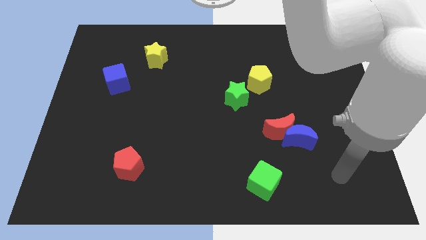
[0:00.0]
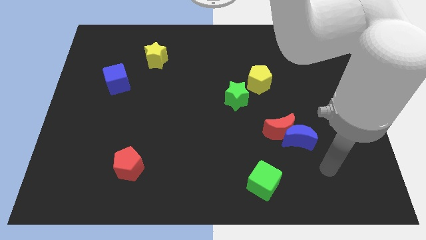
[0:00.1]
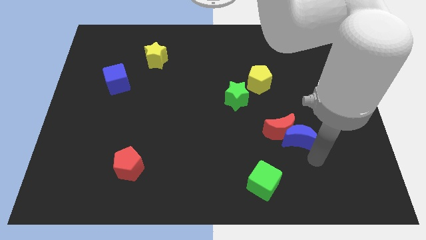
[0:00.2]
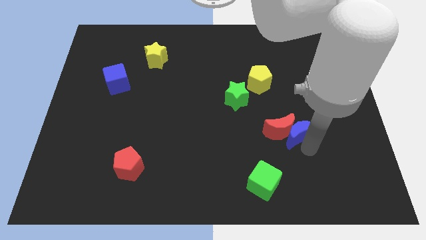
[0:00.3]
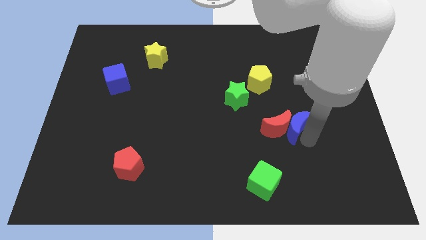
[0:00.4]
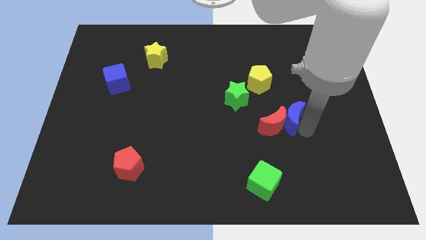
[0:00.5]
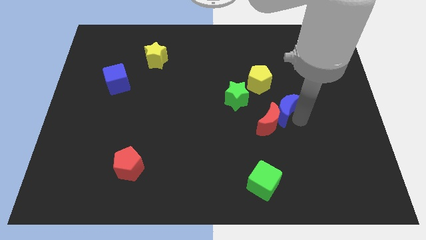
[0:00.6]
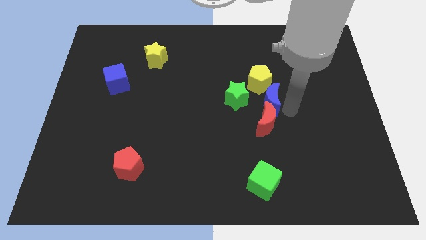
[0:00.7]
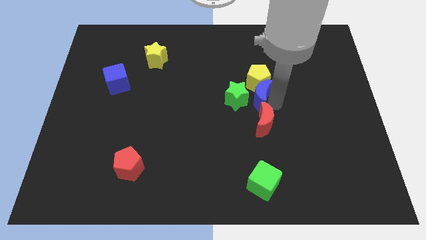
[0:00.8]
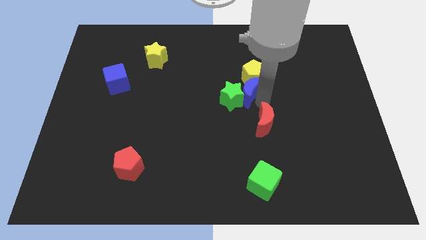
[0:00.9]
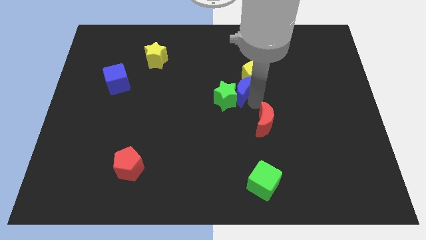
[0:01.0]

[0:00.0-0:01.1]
pull the red moon apart from the blue moon

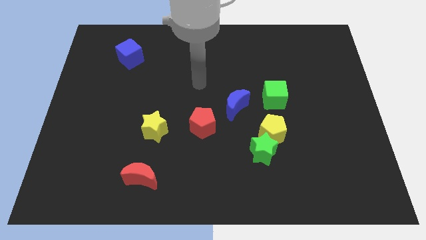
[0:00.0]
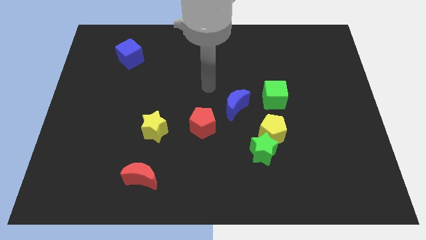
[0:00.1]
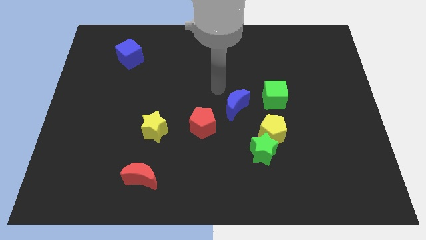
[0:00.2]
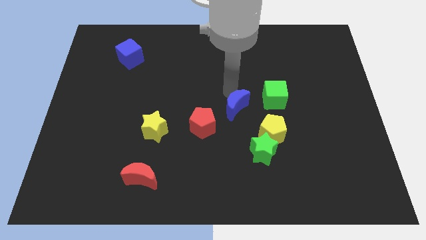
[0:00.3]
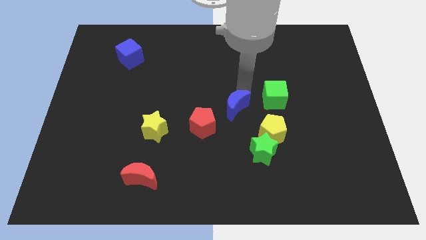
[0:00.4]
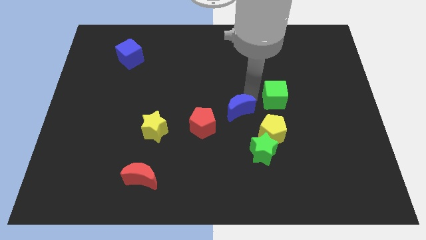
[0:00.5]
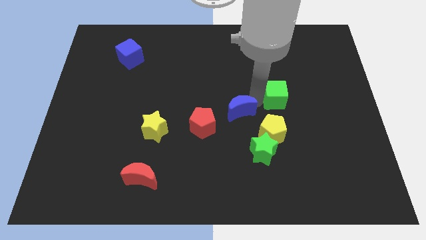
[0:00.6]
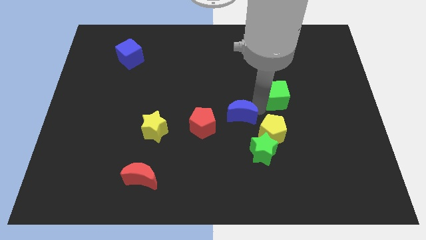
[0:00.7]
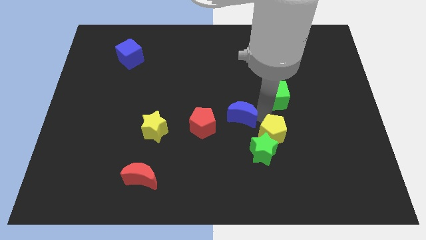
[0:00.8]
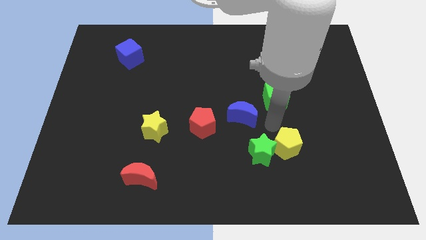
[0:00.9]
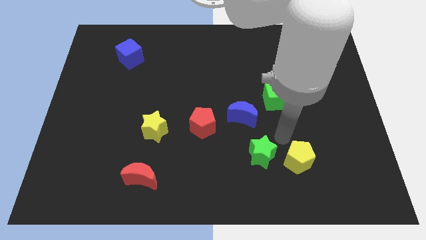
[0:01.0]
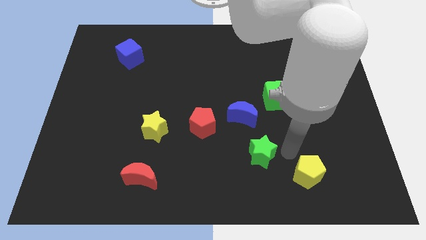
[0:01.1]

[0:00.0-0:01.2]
separate the green star from the yellow pentagon

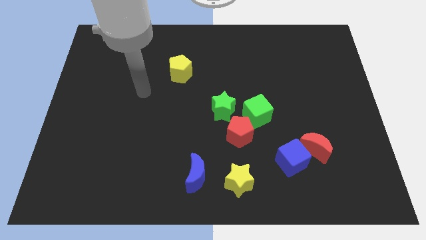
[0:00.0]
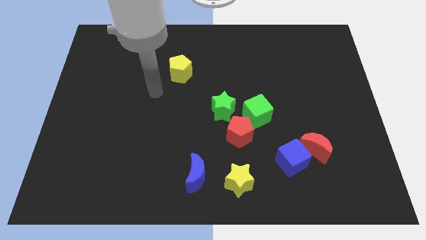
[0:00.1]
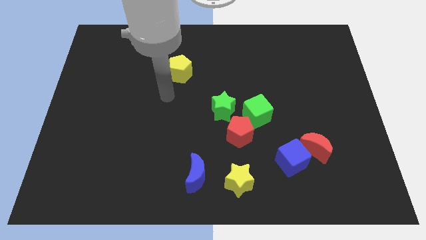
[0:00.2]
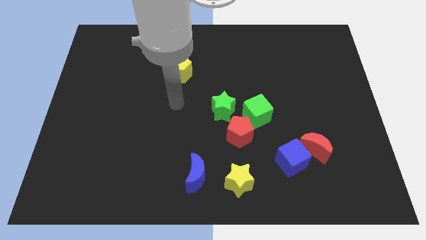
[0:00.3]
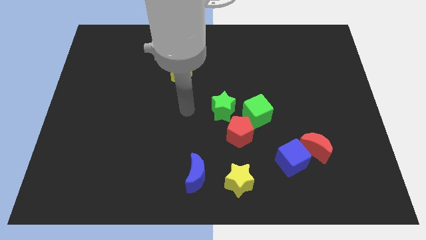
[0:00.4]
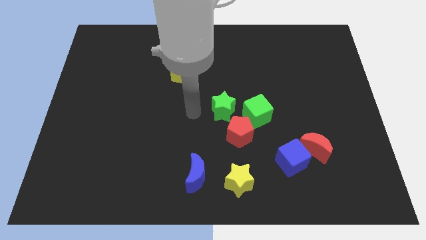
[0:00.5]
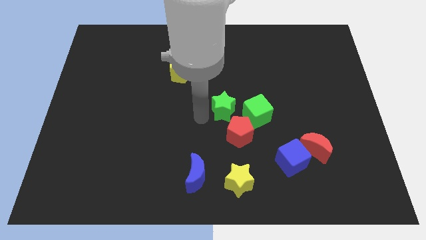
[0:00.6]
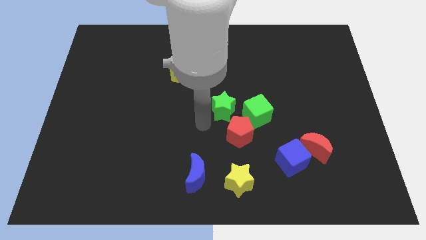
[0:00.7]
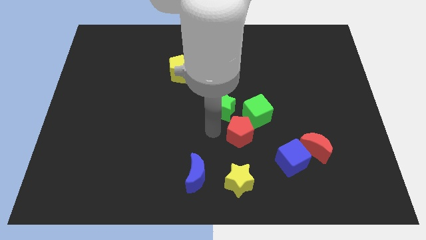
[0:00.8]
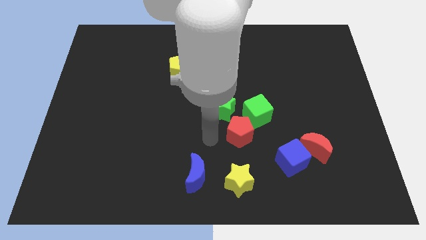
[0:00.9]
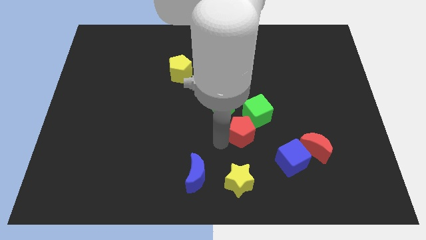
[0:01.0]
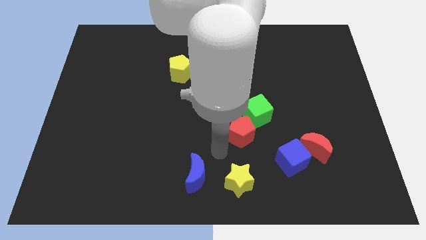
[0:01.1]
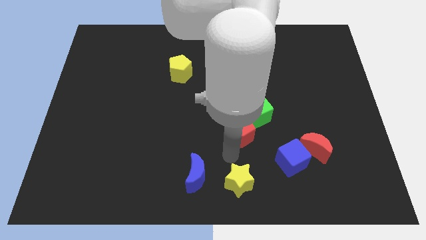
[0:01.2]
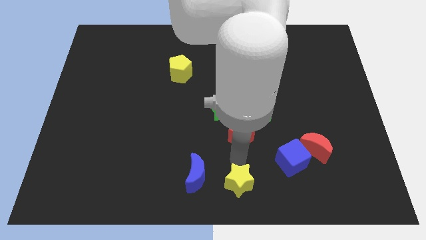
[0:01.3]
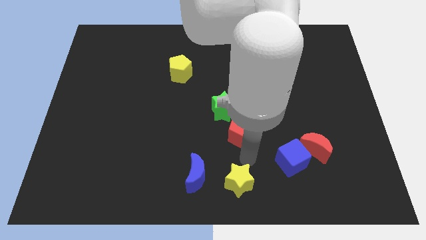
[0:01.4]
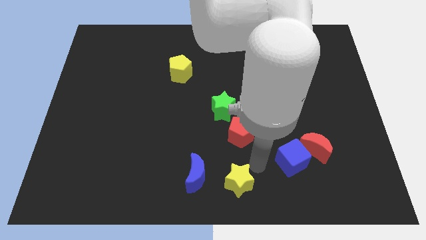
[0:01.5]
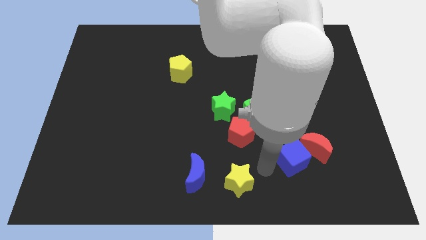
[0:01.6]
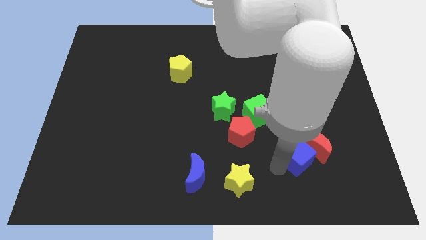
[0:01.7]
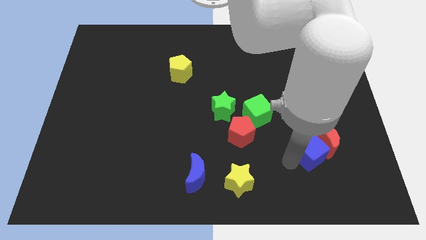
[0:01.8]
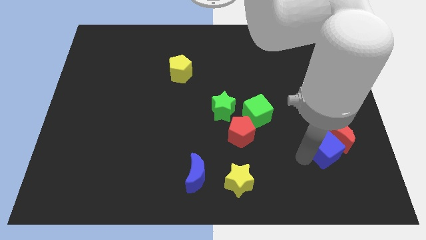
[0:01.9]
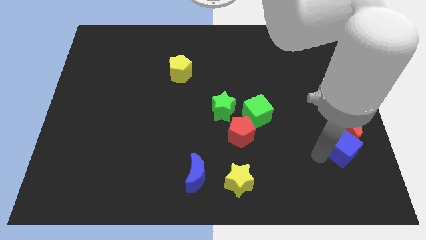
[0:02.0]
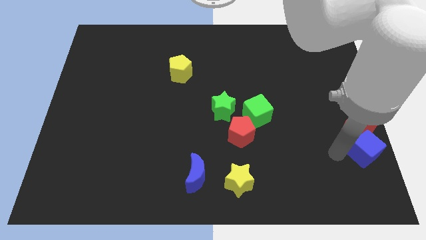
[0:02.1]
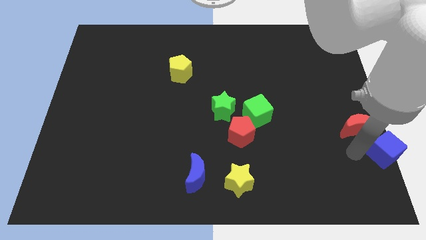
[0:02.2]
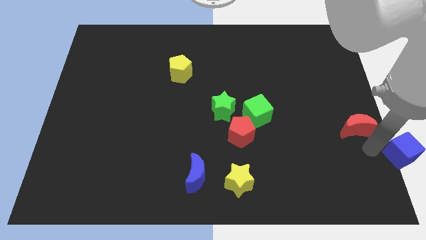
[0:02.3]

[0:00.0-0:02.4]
separate the red moon from the blue cube

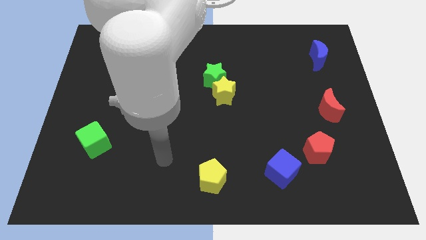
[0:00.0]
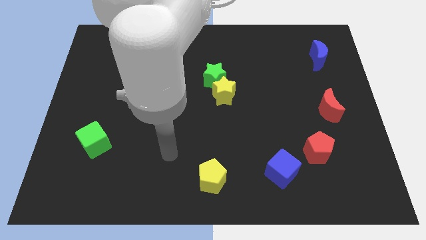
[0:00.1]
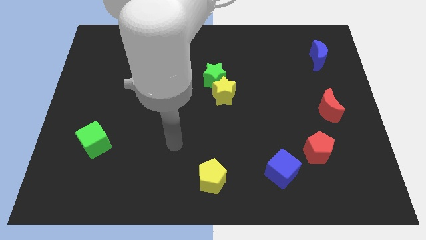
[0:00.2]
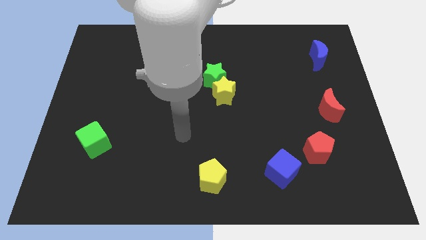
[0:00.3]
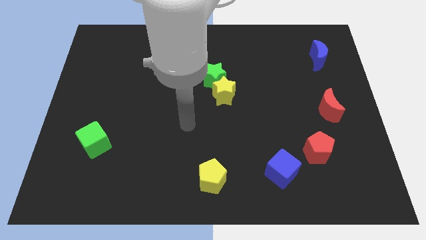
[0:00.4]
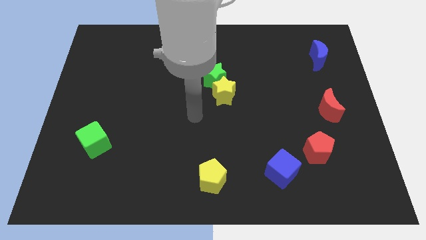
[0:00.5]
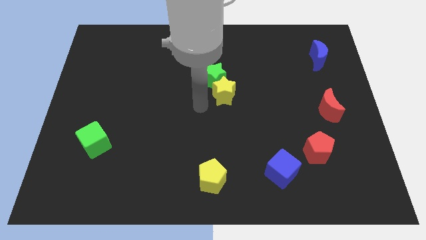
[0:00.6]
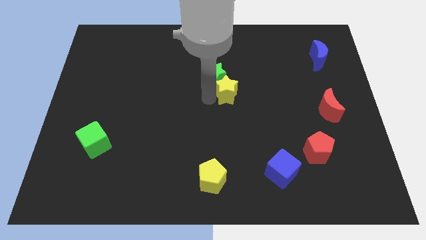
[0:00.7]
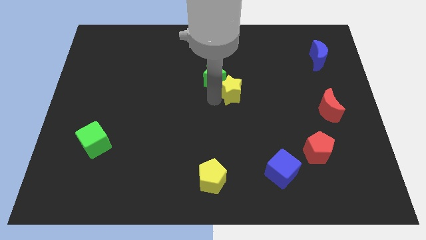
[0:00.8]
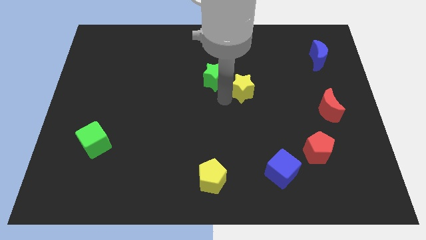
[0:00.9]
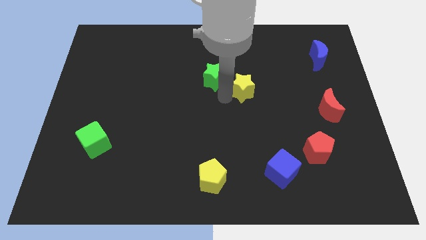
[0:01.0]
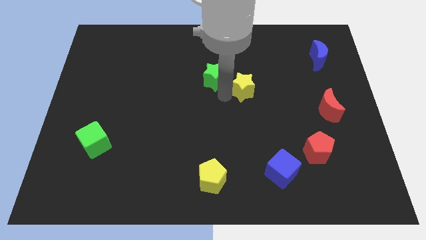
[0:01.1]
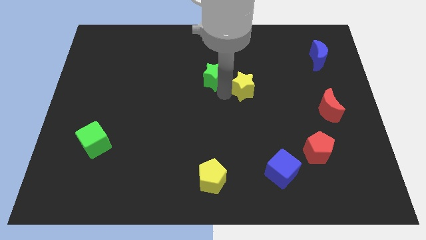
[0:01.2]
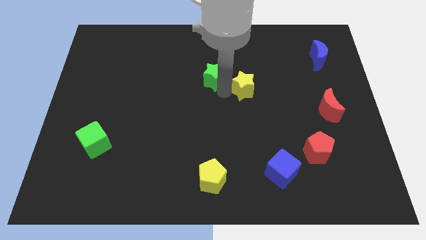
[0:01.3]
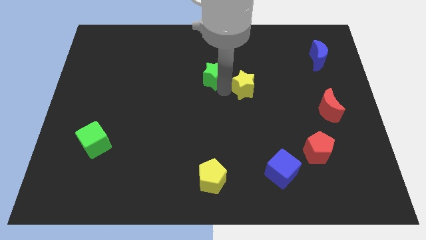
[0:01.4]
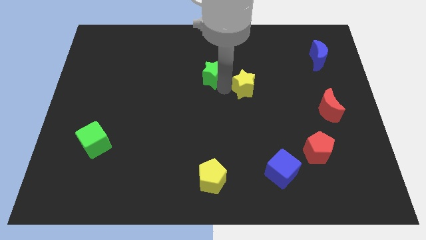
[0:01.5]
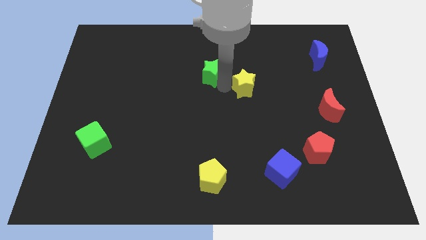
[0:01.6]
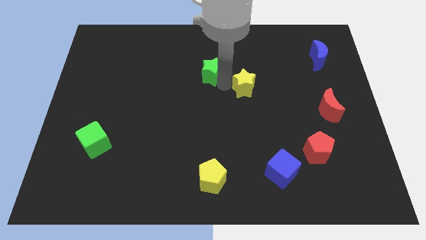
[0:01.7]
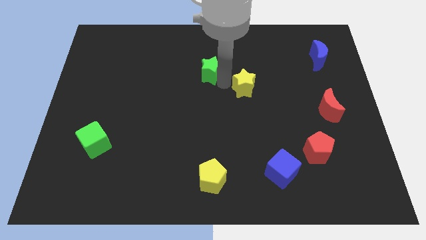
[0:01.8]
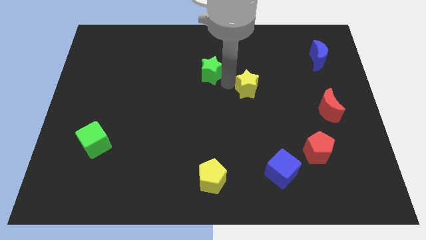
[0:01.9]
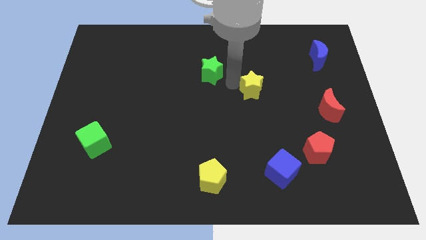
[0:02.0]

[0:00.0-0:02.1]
pull the green star apart from the yellow star

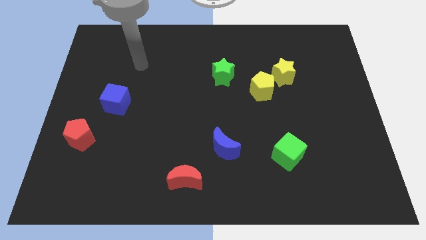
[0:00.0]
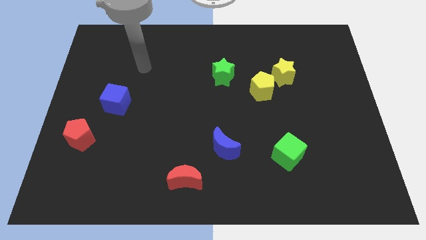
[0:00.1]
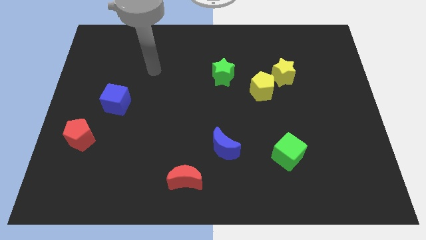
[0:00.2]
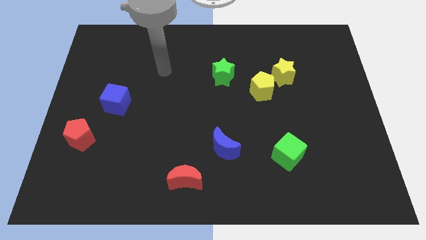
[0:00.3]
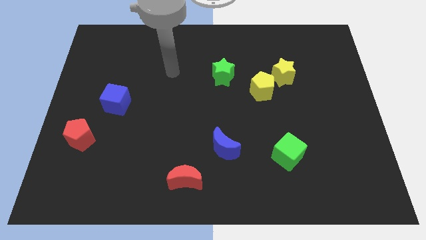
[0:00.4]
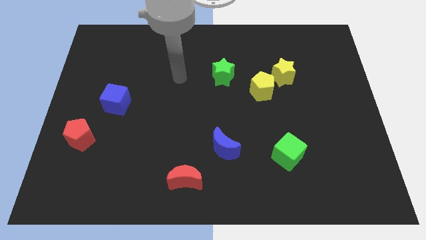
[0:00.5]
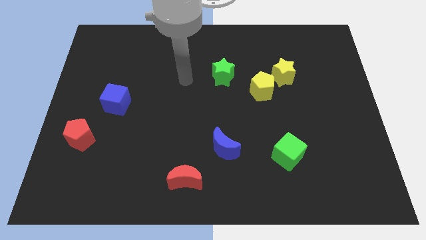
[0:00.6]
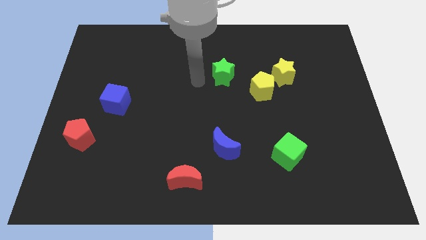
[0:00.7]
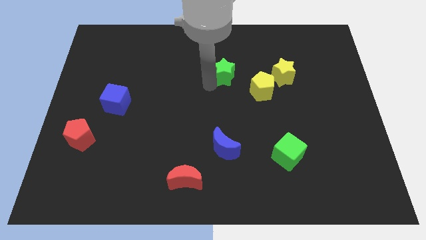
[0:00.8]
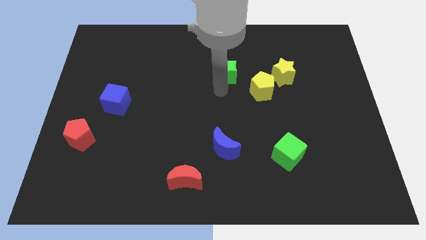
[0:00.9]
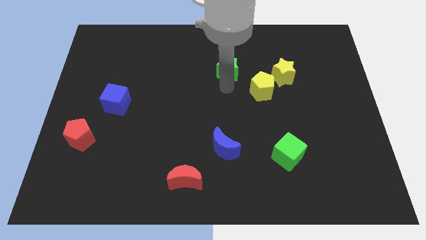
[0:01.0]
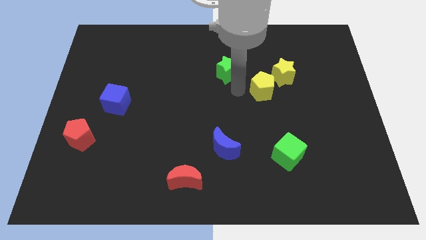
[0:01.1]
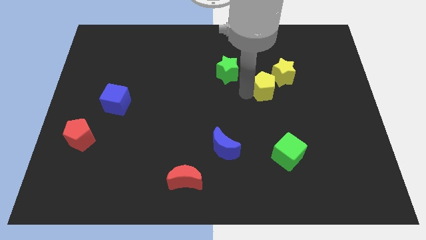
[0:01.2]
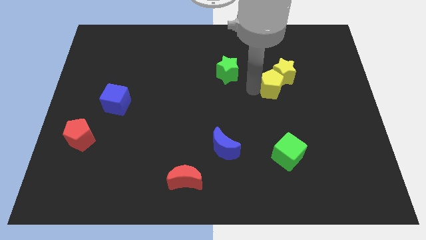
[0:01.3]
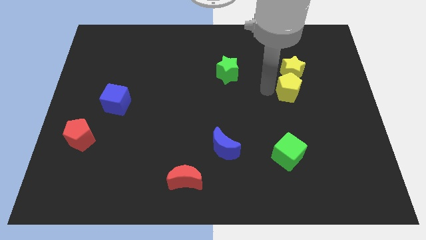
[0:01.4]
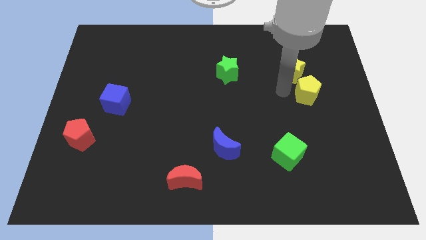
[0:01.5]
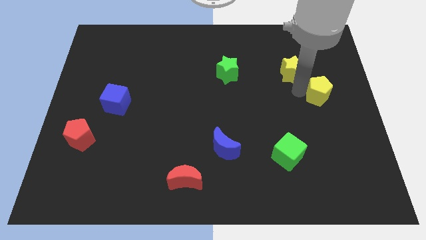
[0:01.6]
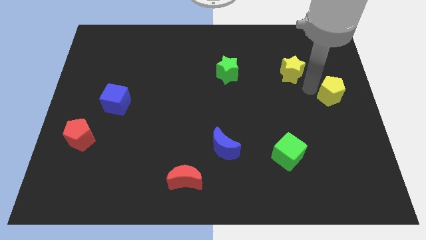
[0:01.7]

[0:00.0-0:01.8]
separate the yellow star from the yellow pentagon

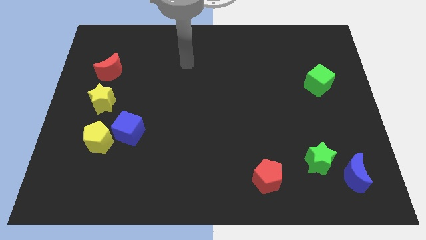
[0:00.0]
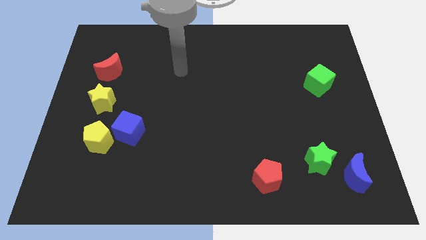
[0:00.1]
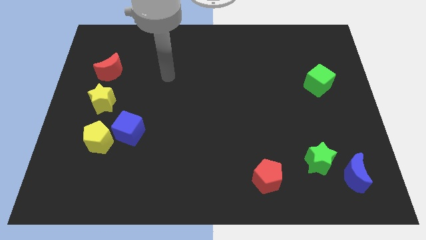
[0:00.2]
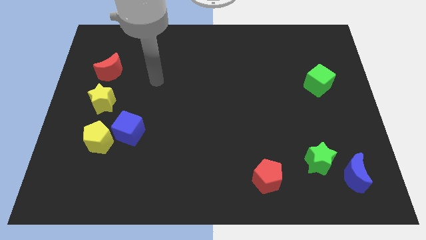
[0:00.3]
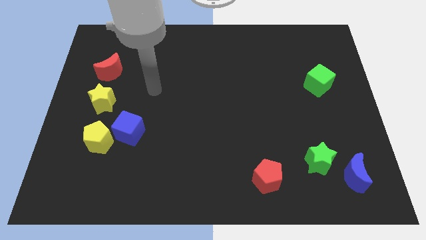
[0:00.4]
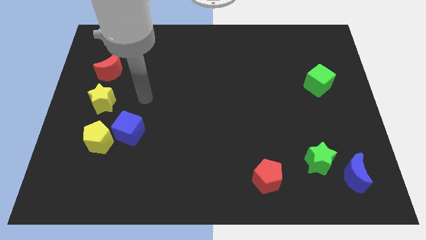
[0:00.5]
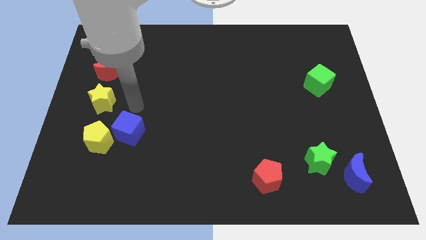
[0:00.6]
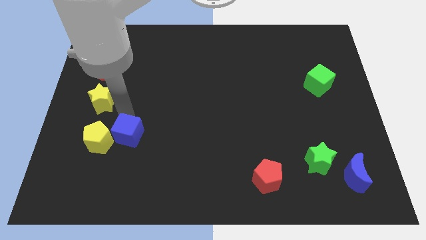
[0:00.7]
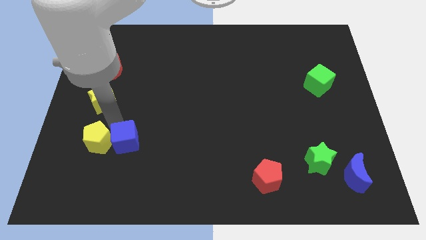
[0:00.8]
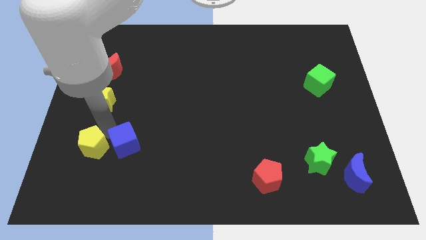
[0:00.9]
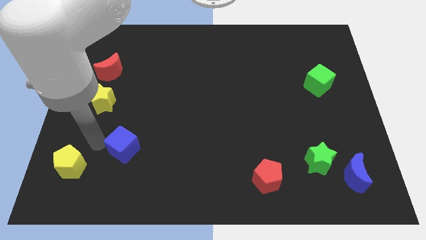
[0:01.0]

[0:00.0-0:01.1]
separate the blue cube from the yellow pentagon
